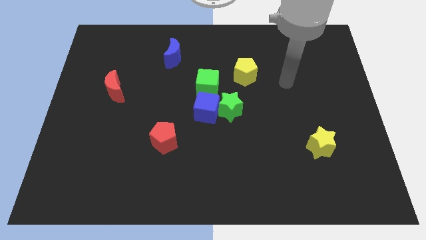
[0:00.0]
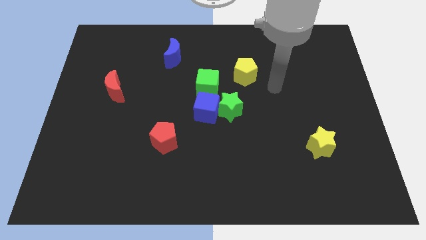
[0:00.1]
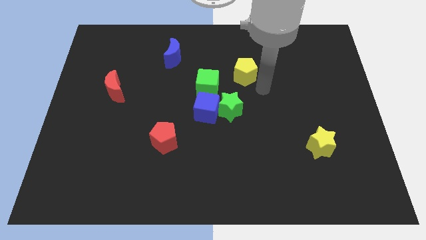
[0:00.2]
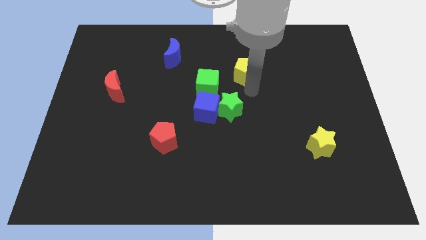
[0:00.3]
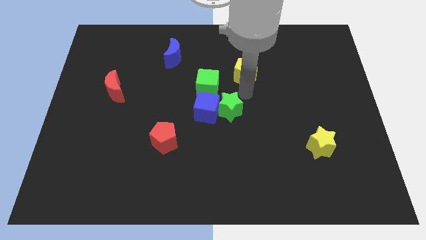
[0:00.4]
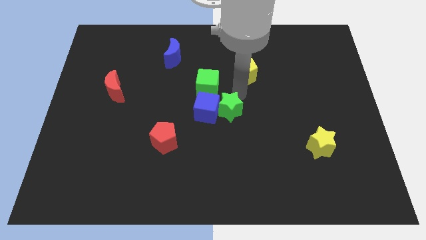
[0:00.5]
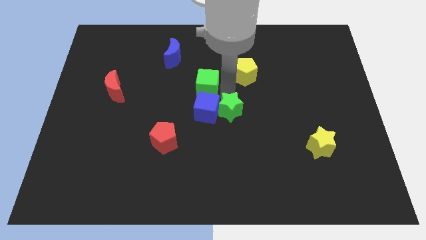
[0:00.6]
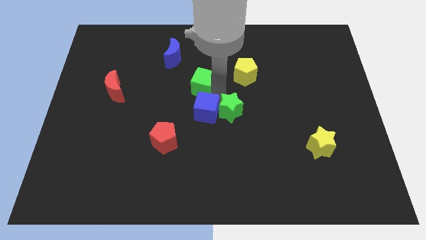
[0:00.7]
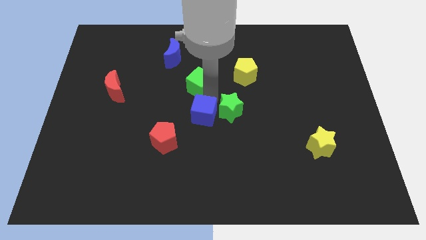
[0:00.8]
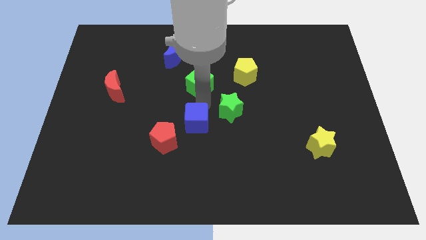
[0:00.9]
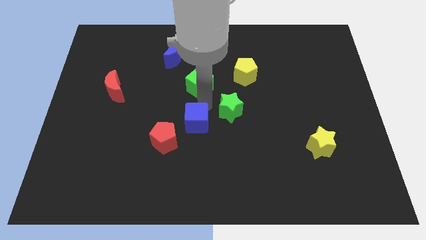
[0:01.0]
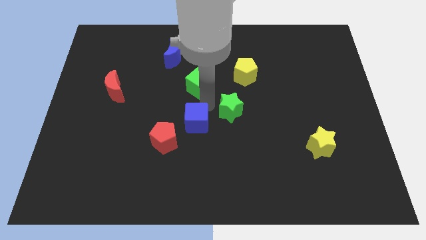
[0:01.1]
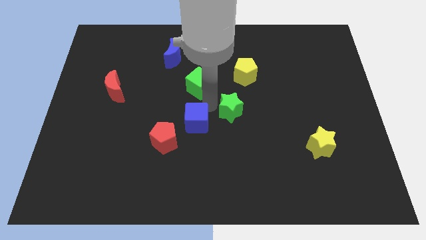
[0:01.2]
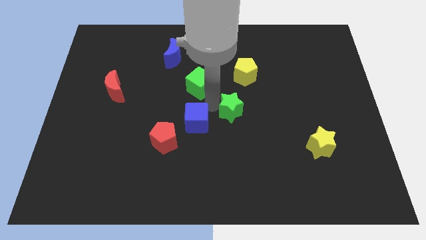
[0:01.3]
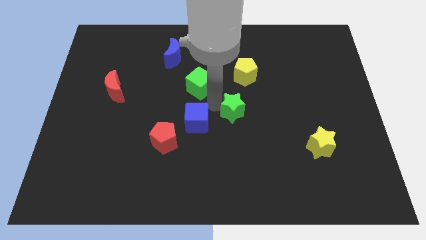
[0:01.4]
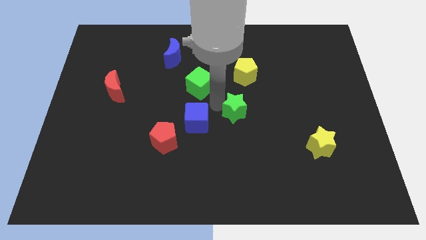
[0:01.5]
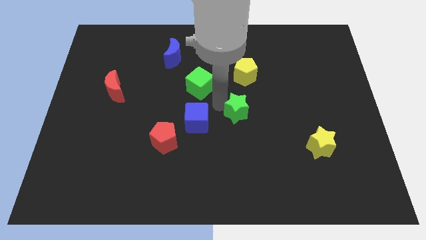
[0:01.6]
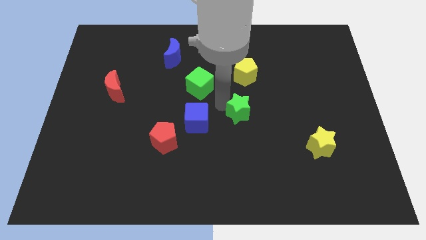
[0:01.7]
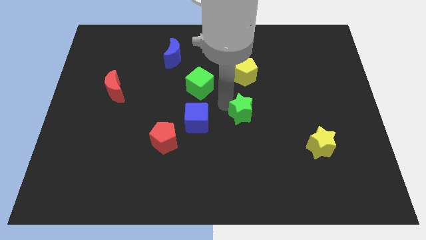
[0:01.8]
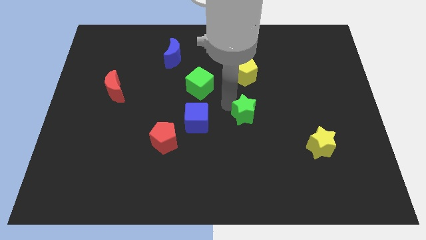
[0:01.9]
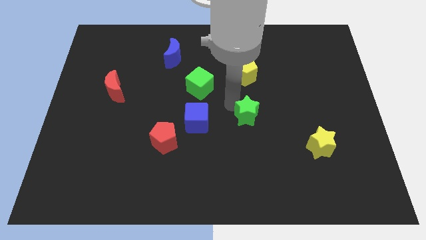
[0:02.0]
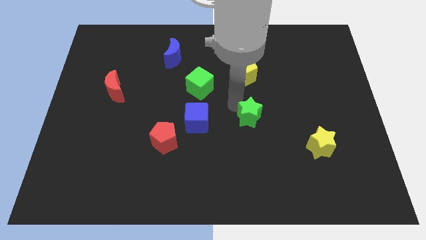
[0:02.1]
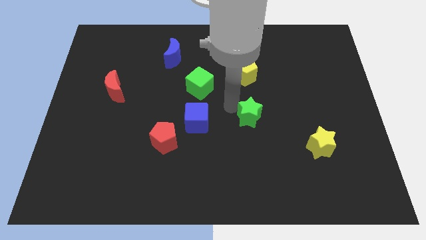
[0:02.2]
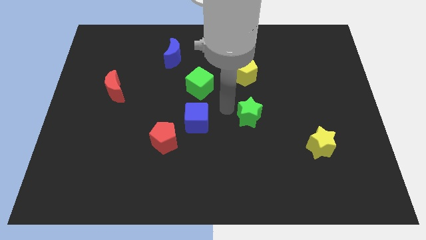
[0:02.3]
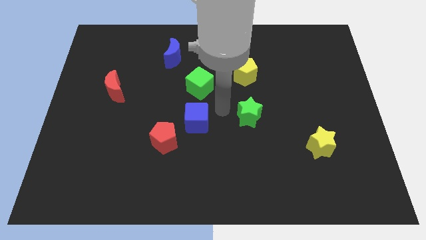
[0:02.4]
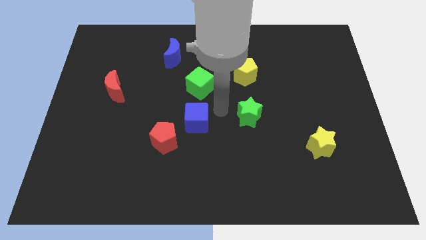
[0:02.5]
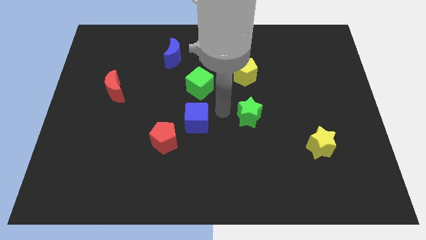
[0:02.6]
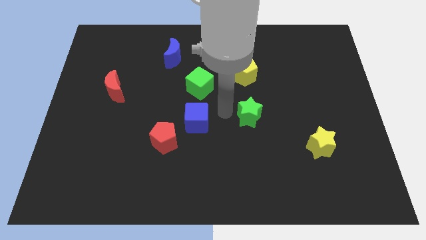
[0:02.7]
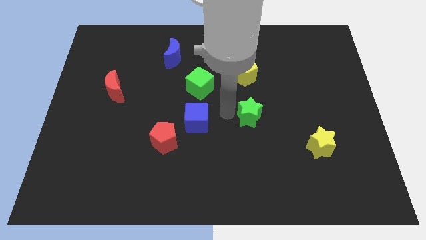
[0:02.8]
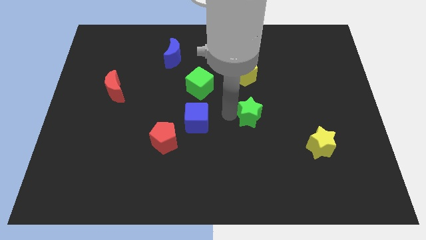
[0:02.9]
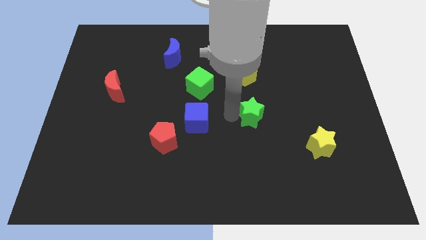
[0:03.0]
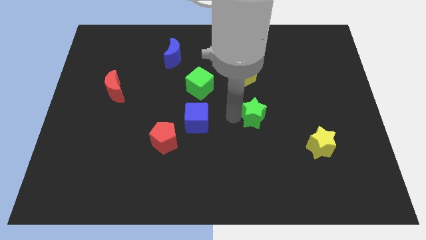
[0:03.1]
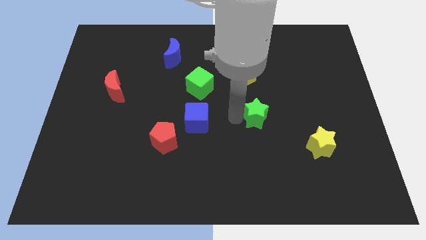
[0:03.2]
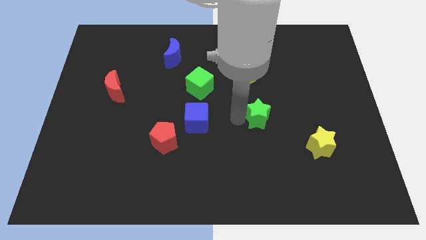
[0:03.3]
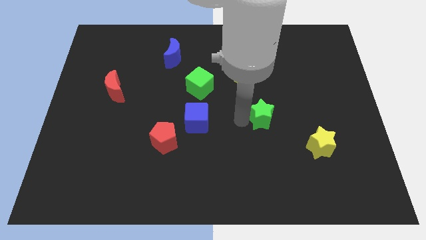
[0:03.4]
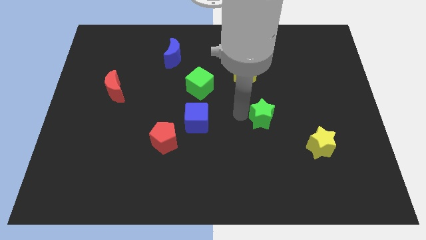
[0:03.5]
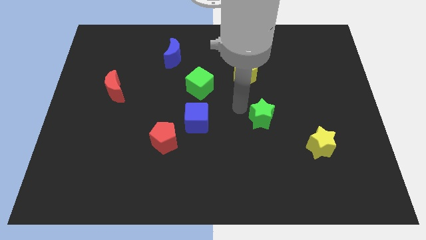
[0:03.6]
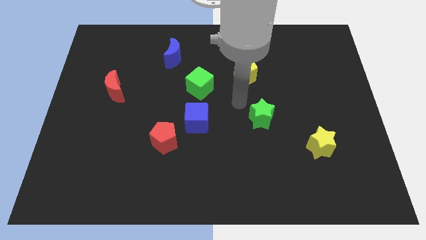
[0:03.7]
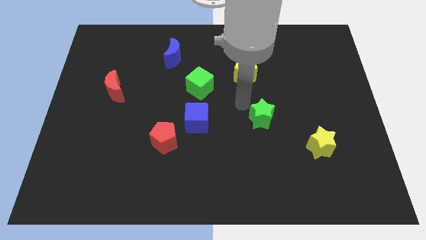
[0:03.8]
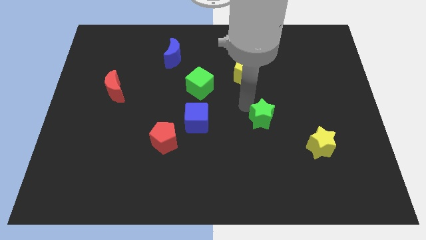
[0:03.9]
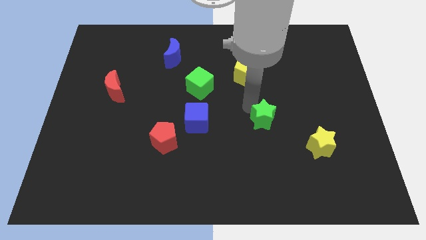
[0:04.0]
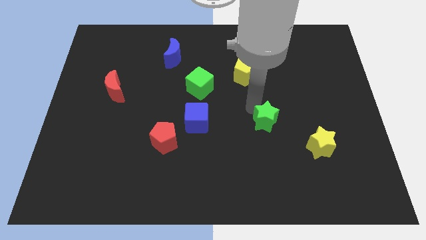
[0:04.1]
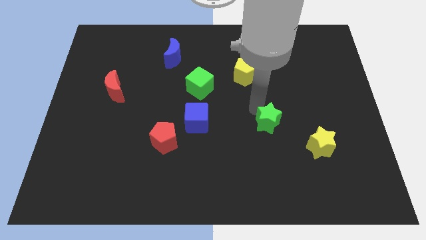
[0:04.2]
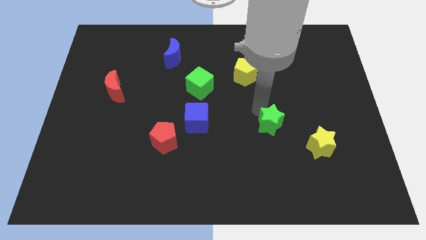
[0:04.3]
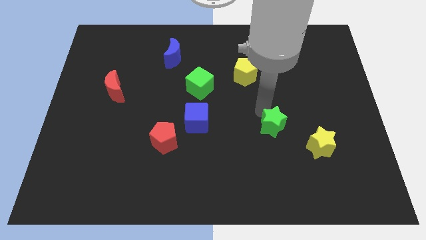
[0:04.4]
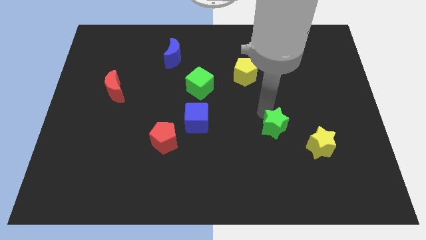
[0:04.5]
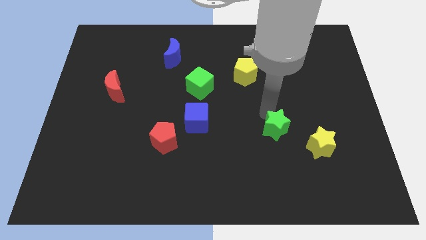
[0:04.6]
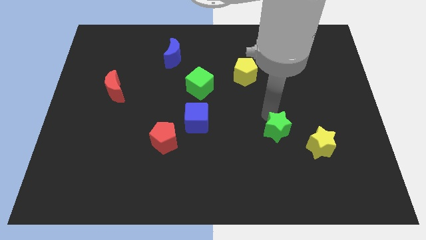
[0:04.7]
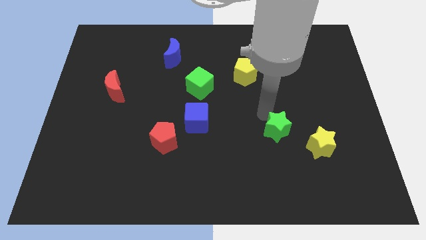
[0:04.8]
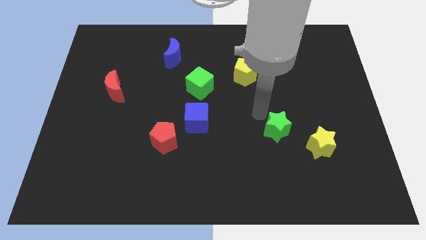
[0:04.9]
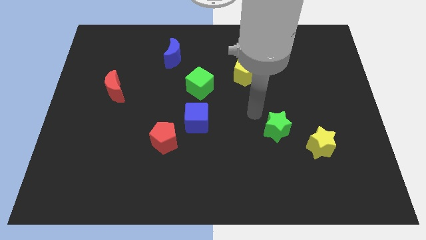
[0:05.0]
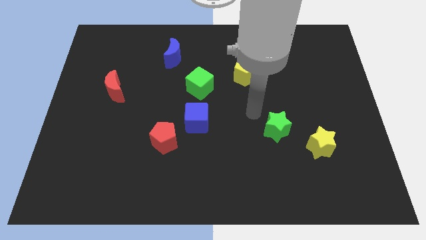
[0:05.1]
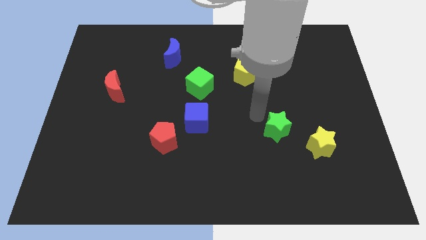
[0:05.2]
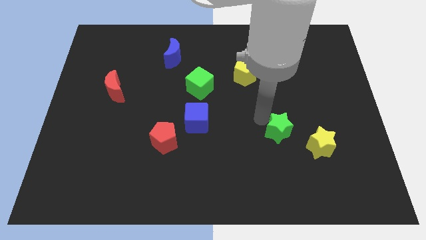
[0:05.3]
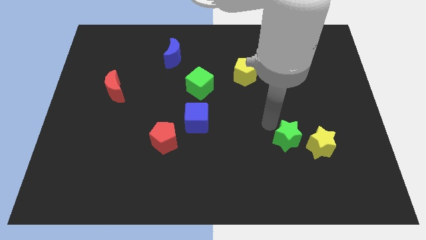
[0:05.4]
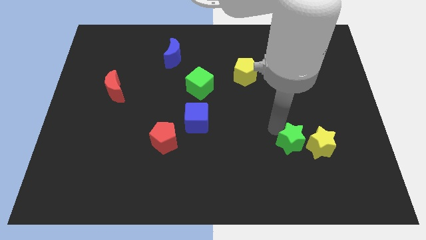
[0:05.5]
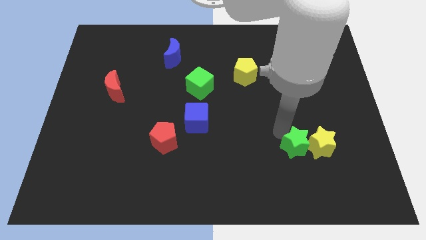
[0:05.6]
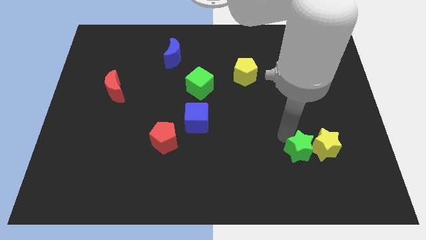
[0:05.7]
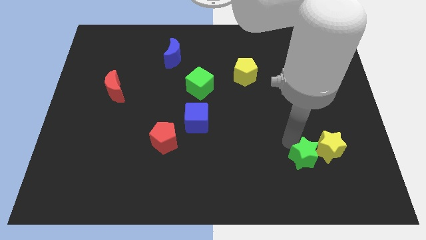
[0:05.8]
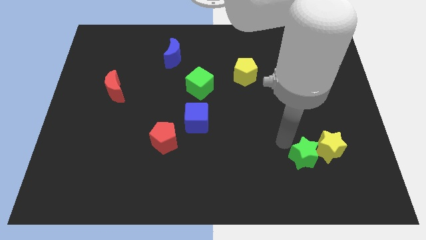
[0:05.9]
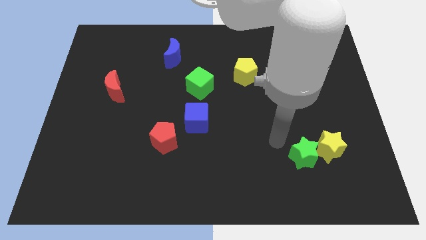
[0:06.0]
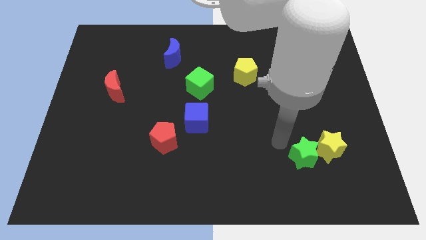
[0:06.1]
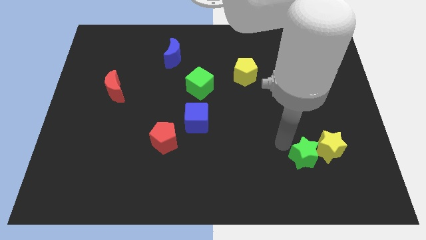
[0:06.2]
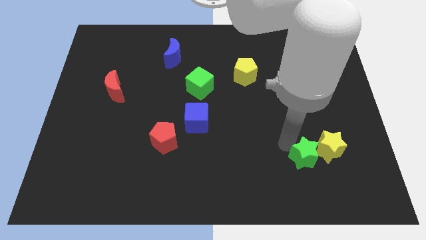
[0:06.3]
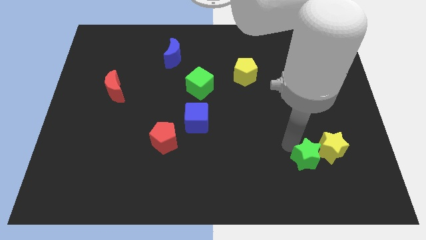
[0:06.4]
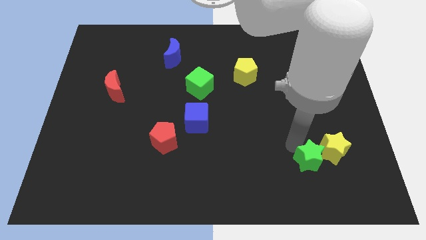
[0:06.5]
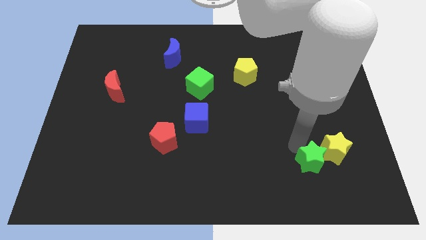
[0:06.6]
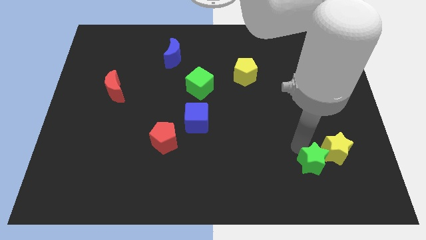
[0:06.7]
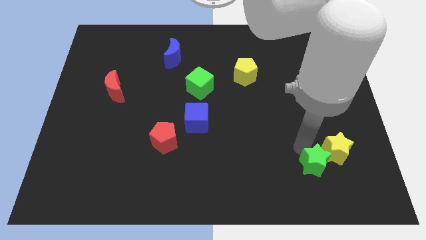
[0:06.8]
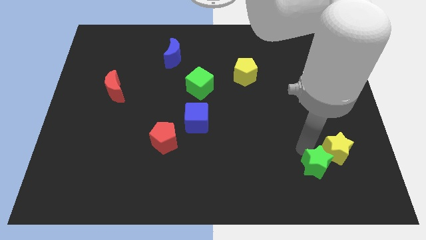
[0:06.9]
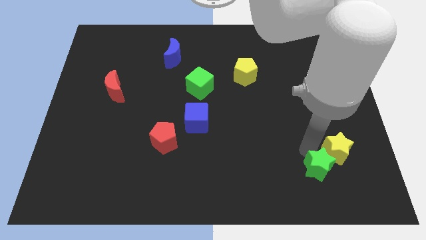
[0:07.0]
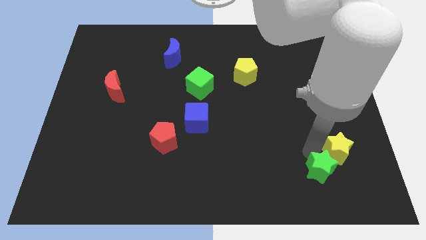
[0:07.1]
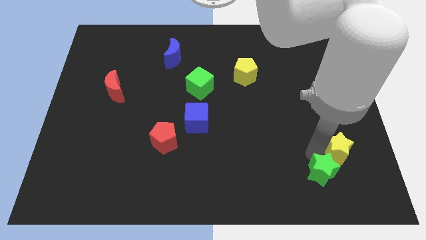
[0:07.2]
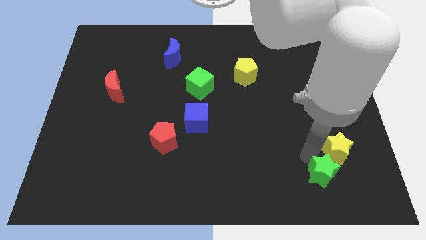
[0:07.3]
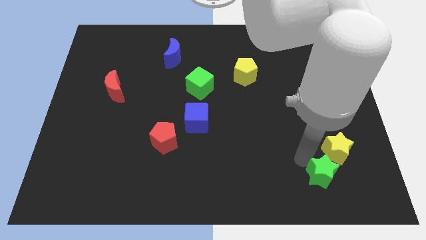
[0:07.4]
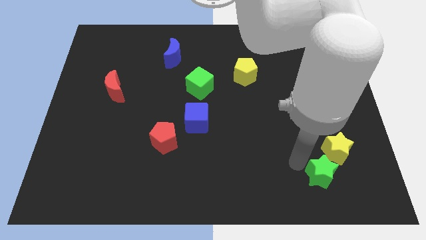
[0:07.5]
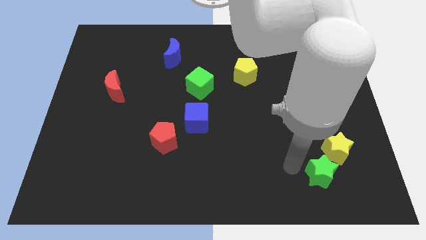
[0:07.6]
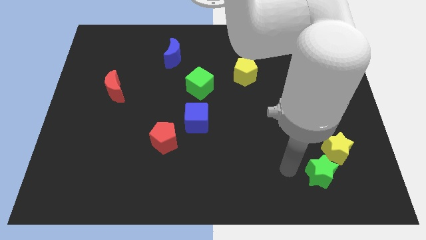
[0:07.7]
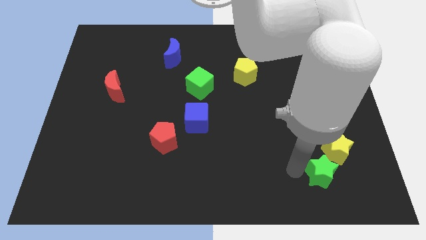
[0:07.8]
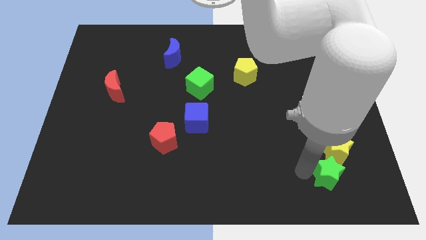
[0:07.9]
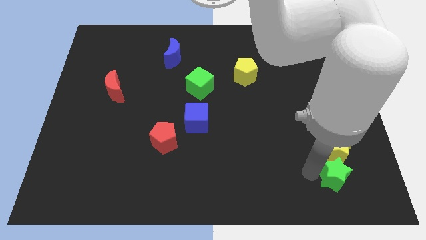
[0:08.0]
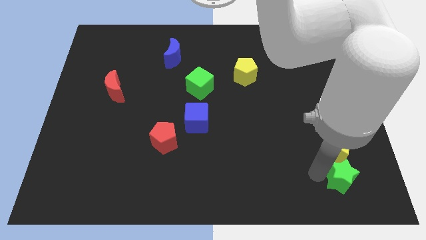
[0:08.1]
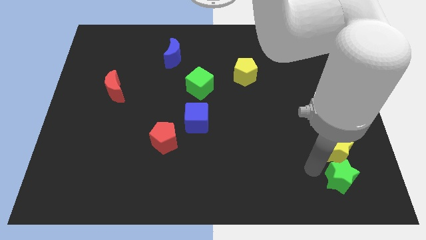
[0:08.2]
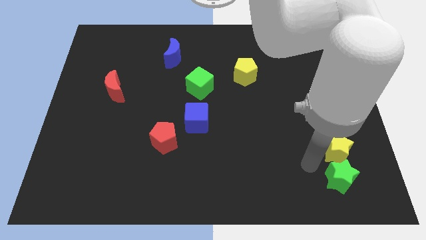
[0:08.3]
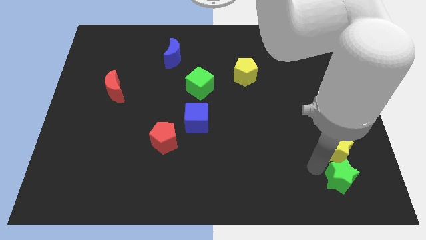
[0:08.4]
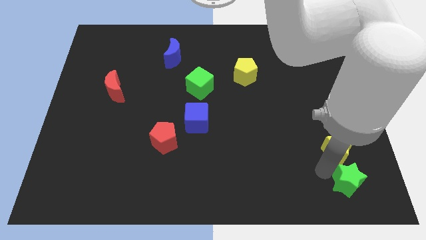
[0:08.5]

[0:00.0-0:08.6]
put the green star to the bottom right corner
